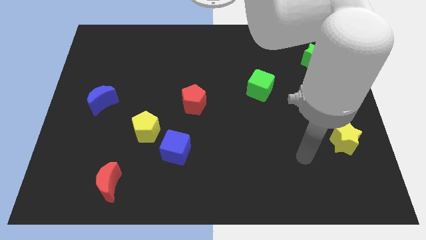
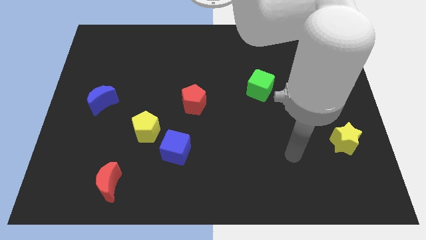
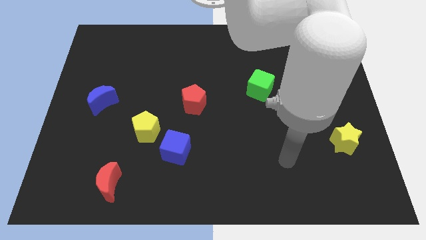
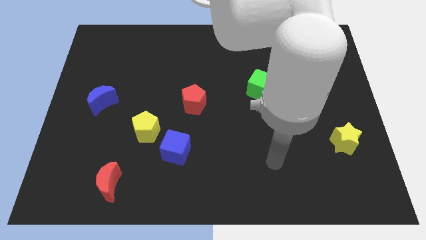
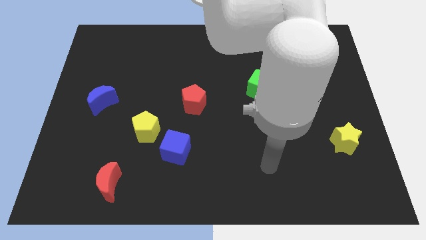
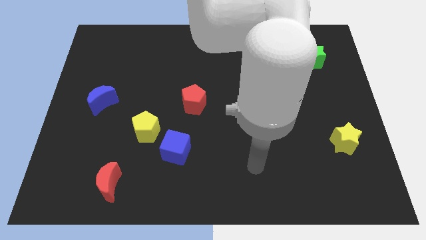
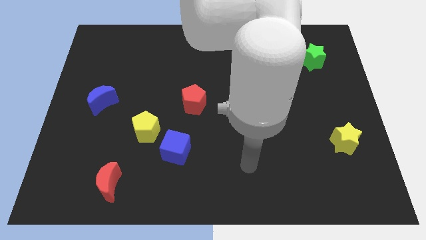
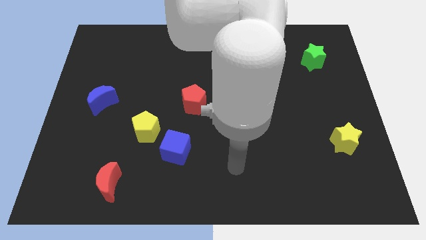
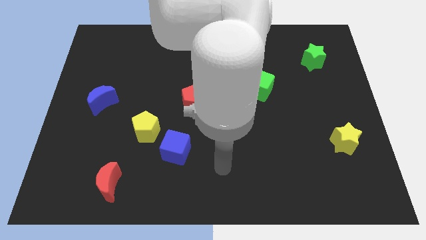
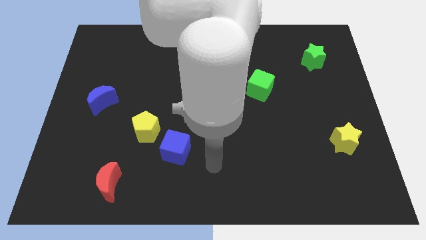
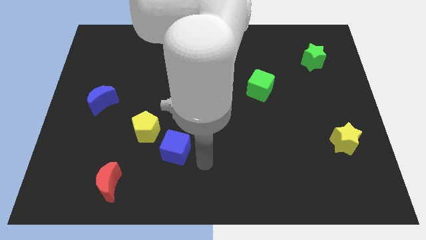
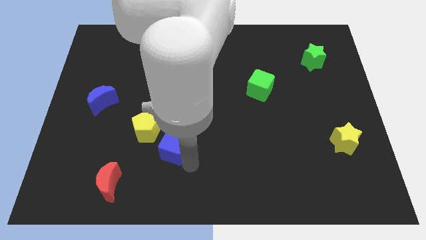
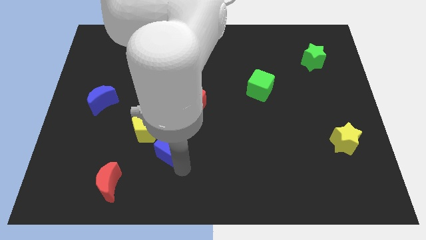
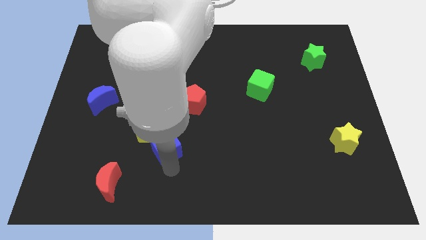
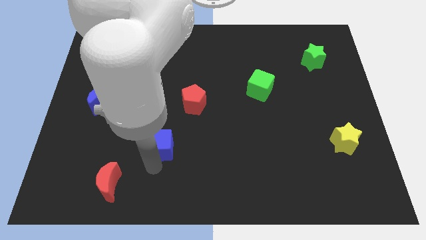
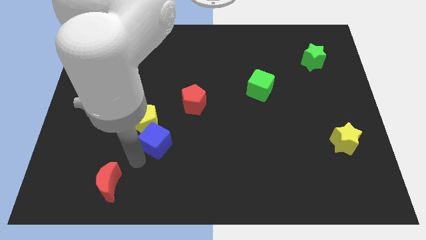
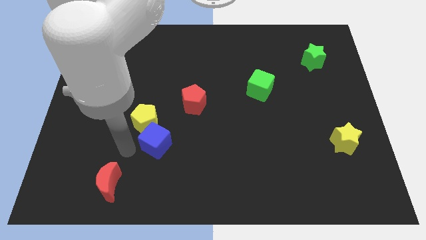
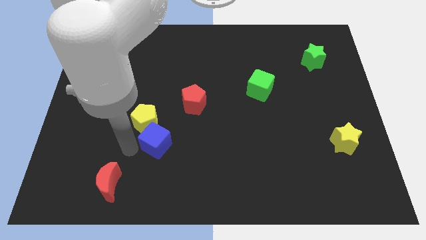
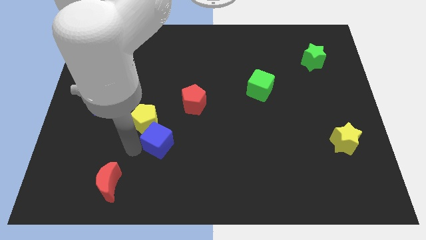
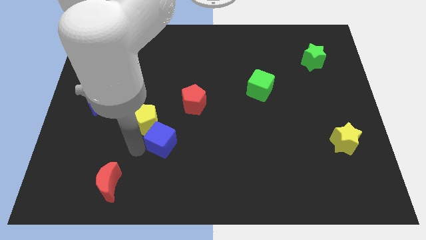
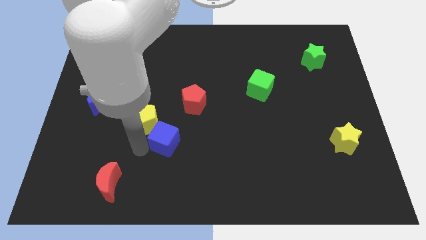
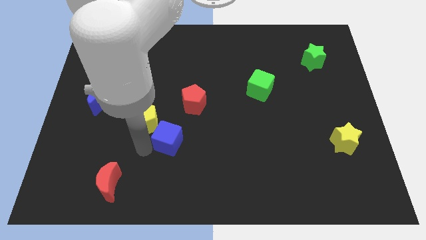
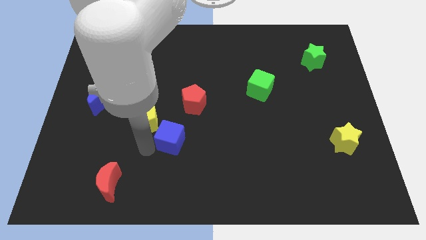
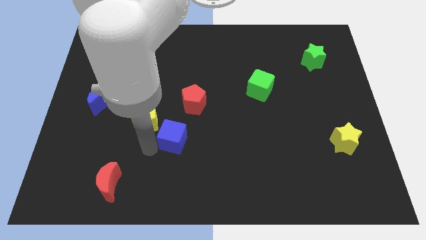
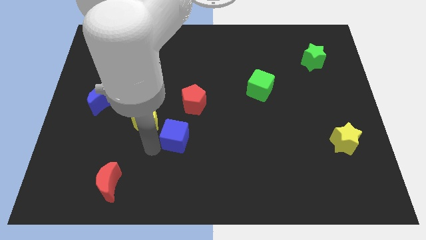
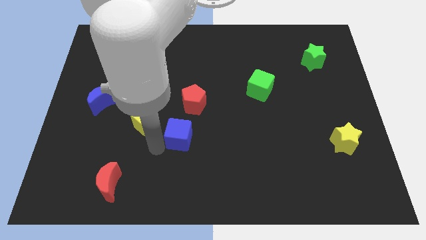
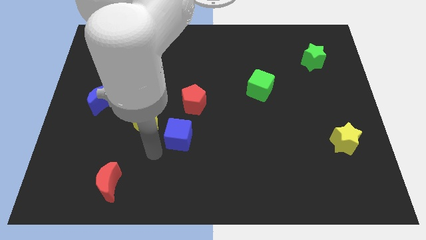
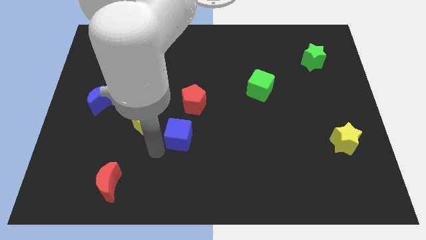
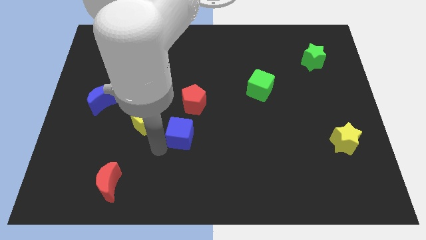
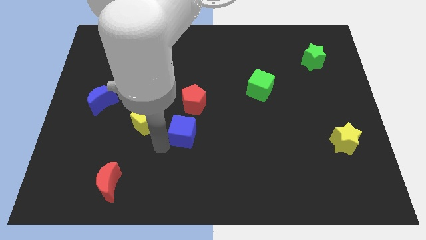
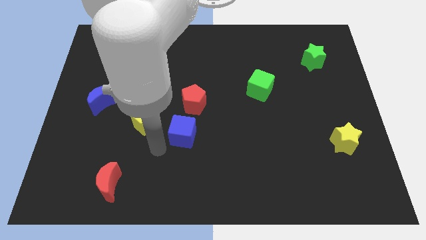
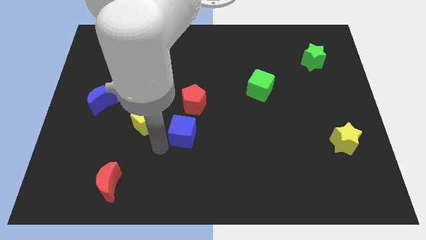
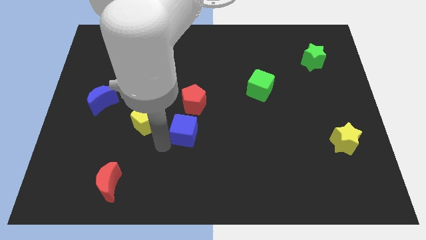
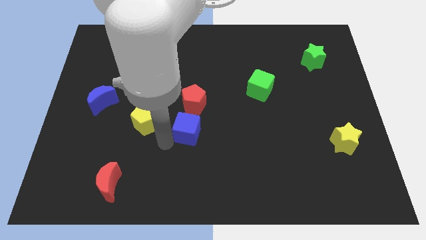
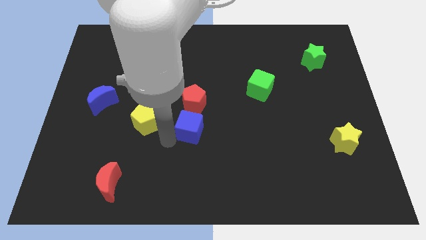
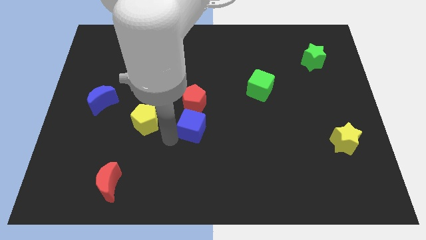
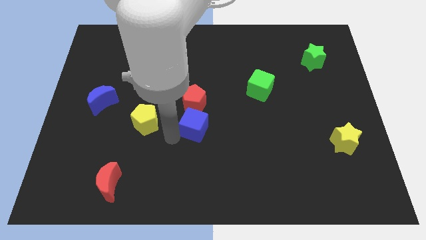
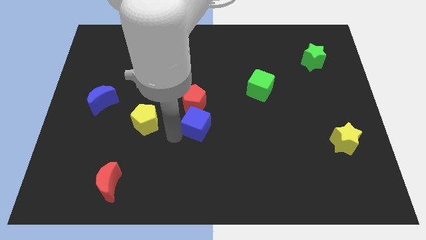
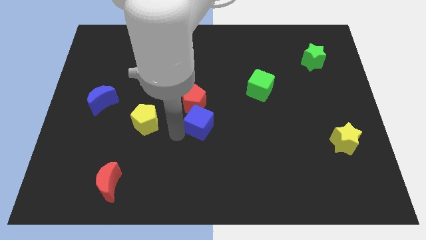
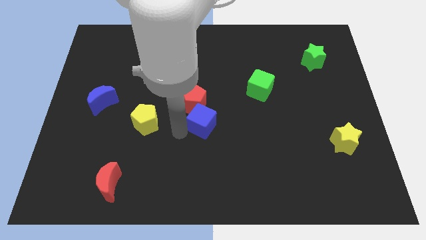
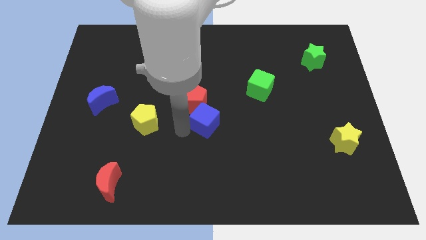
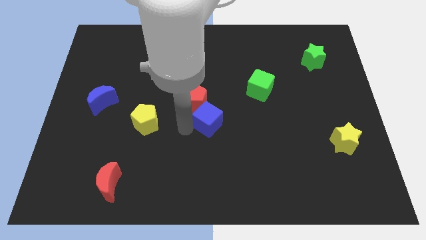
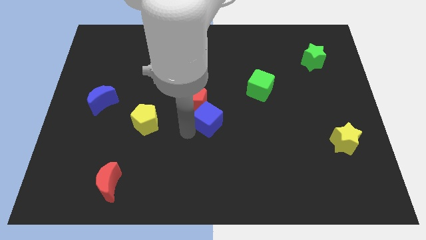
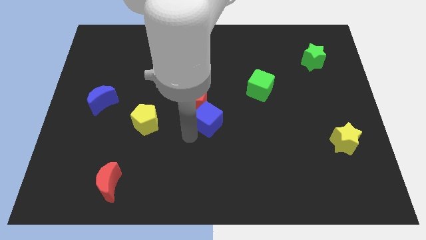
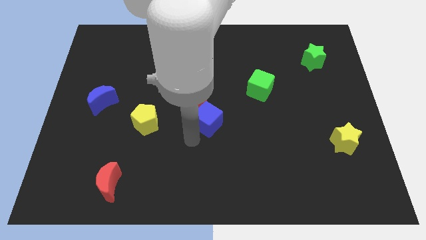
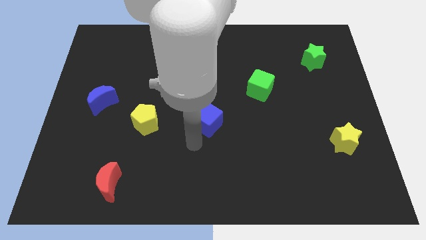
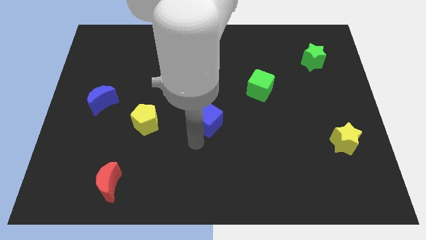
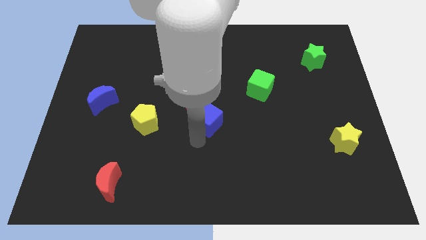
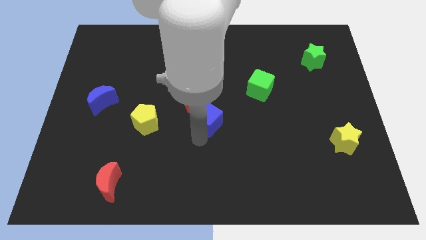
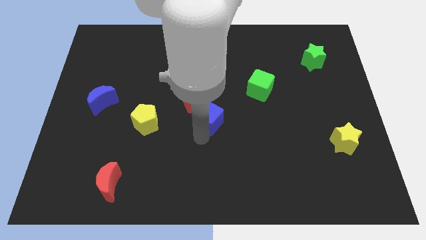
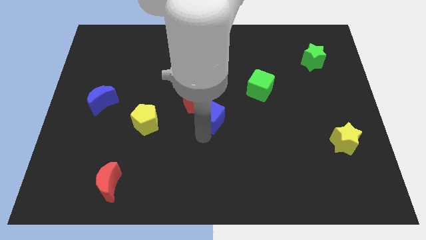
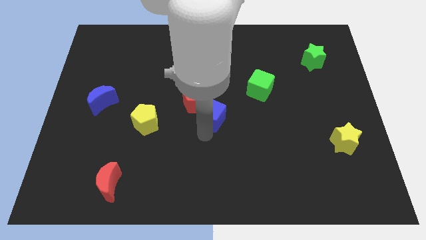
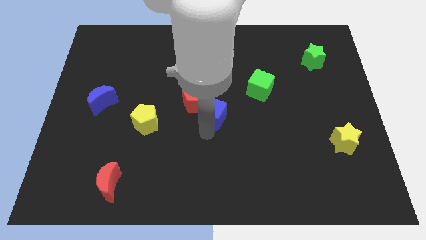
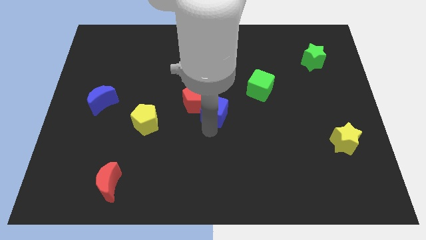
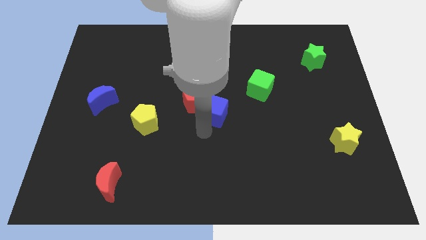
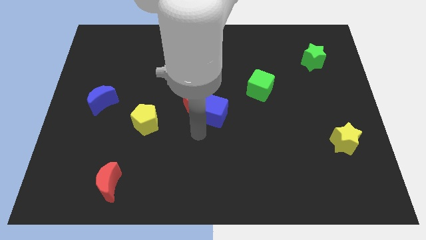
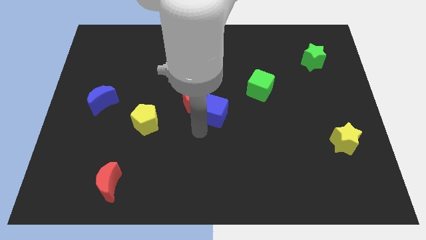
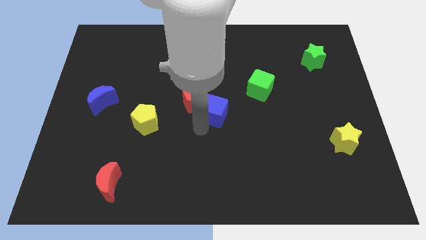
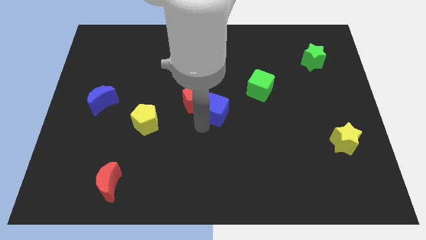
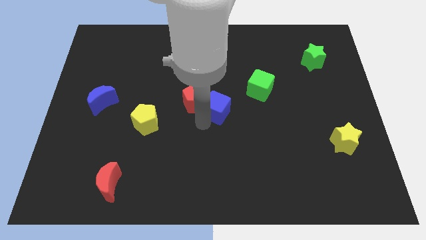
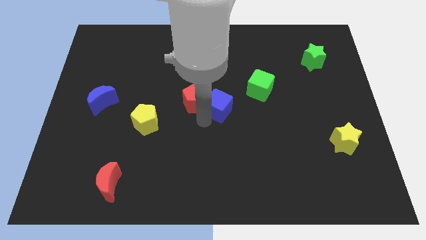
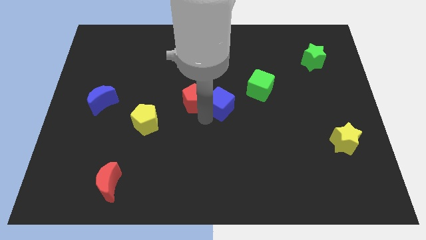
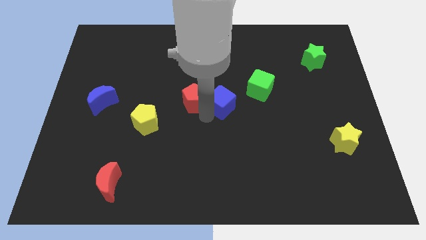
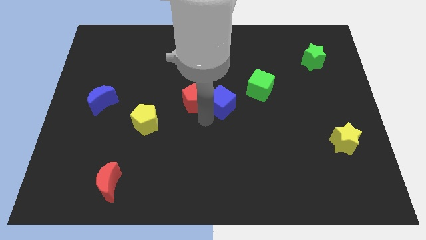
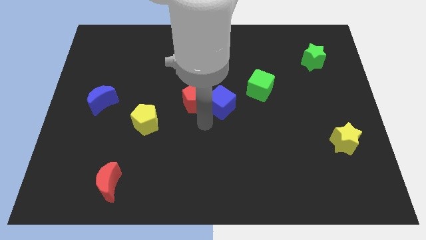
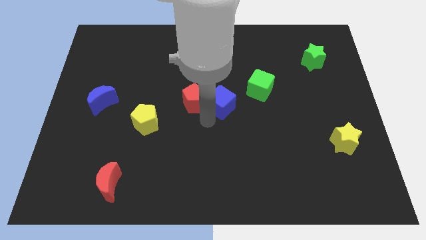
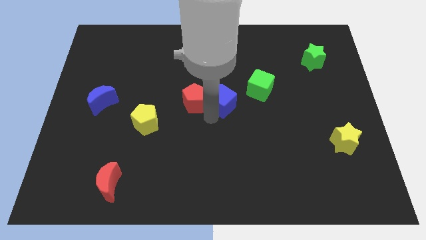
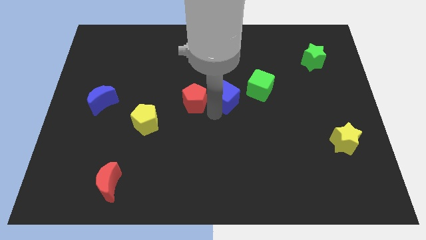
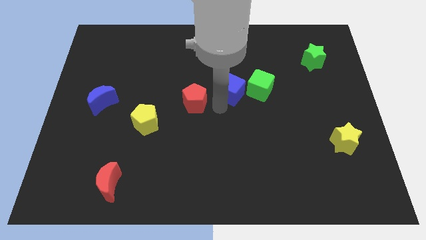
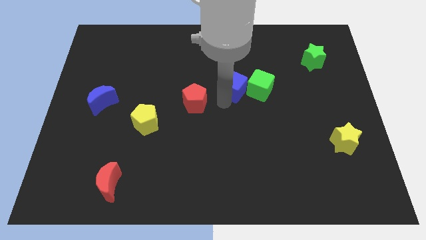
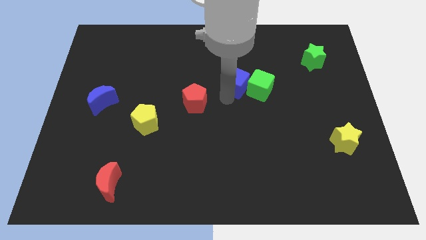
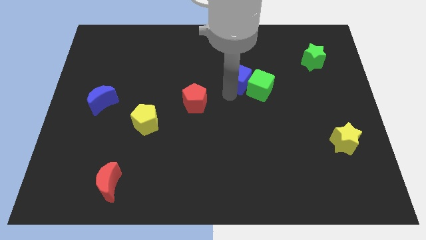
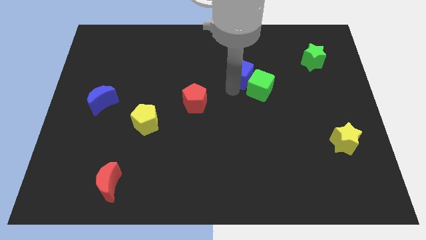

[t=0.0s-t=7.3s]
push the blue cube above the green cube
